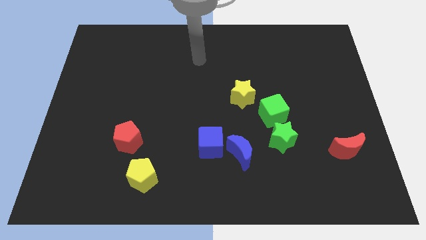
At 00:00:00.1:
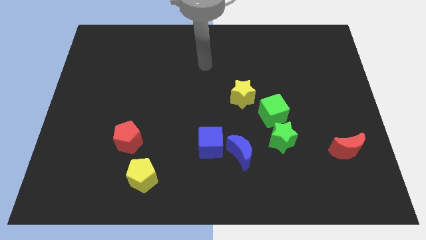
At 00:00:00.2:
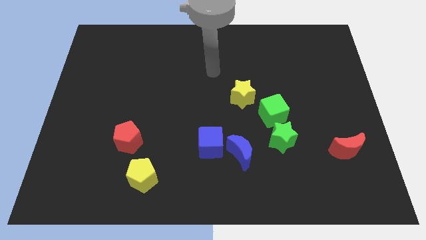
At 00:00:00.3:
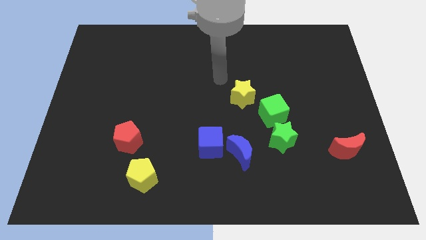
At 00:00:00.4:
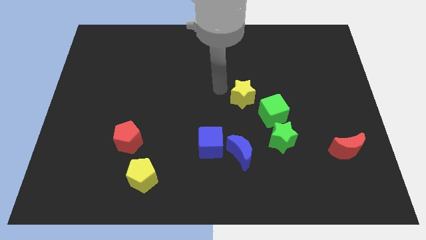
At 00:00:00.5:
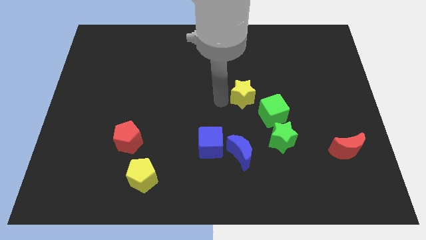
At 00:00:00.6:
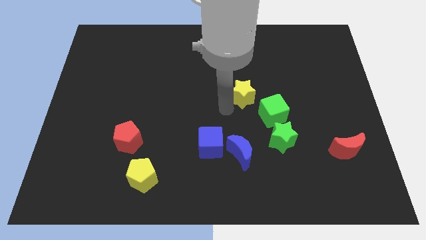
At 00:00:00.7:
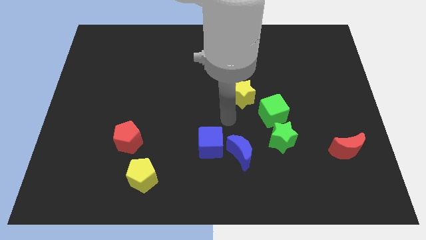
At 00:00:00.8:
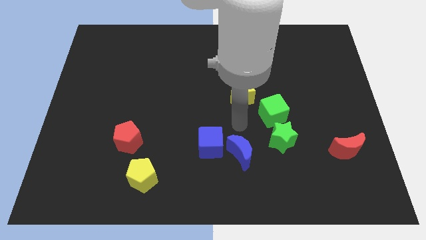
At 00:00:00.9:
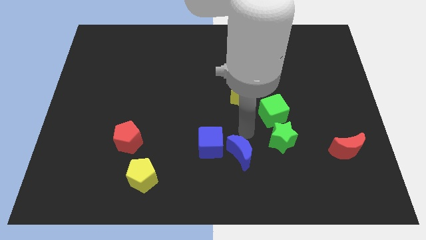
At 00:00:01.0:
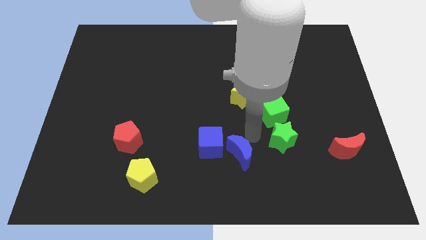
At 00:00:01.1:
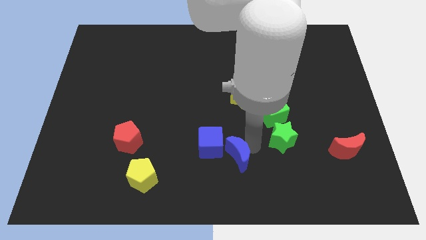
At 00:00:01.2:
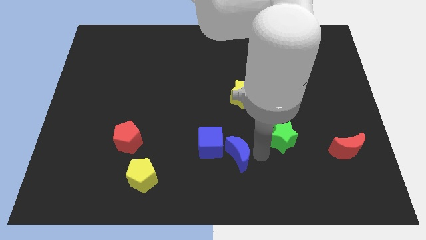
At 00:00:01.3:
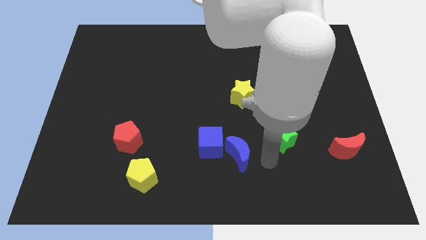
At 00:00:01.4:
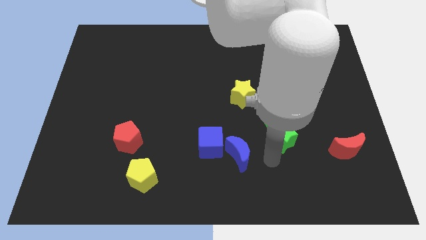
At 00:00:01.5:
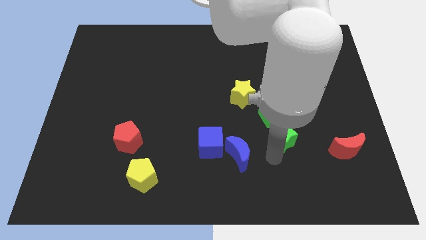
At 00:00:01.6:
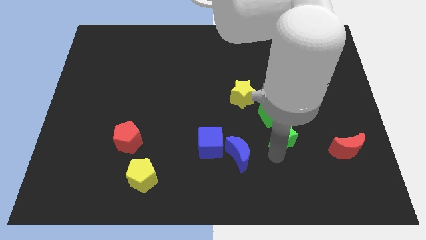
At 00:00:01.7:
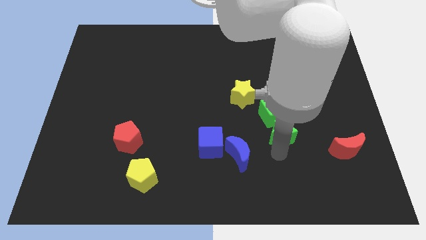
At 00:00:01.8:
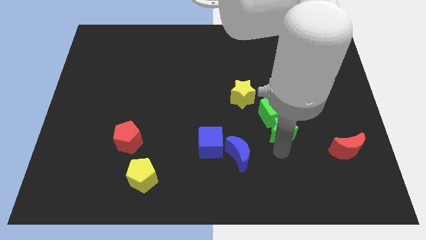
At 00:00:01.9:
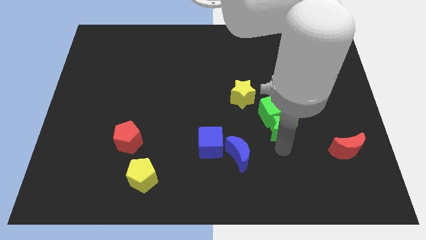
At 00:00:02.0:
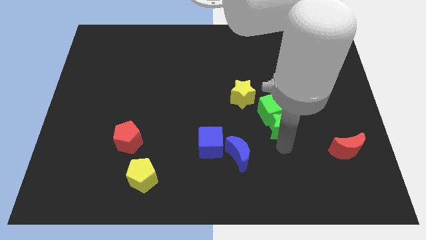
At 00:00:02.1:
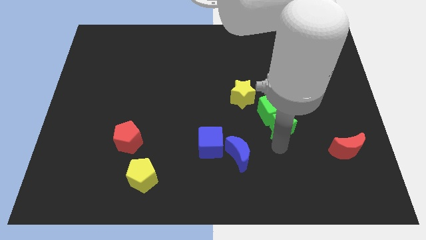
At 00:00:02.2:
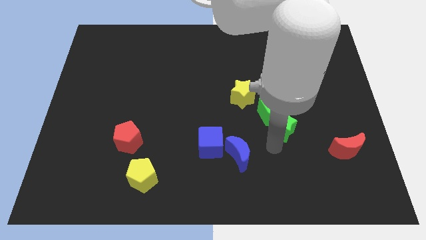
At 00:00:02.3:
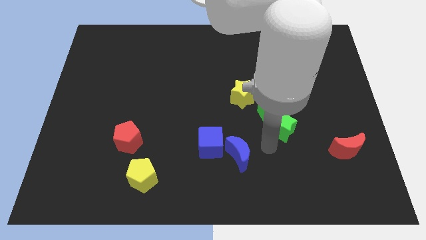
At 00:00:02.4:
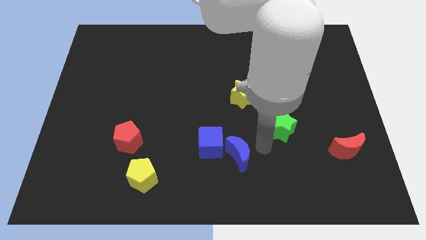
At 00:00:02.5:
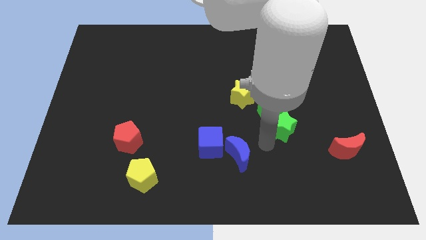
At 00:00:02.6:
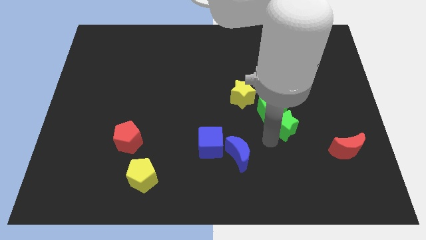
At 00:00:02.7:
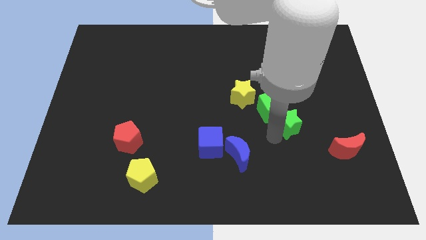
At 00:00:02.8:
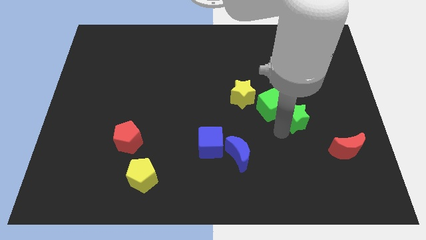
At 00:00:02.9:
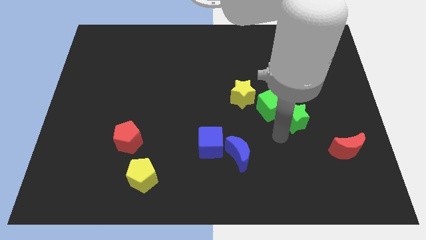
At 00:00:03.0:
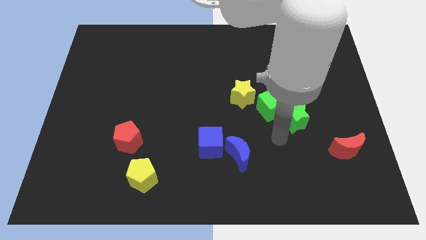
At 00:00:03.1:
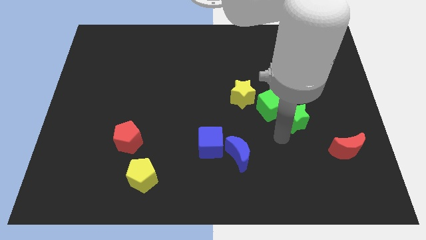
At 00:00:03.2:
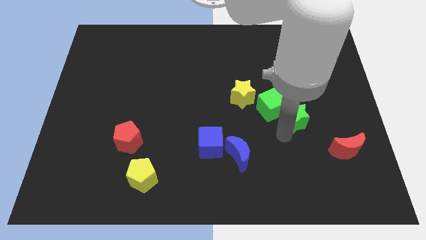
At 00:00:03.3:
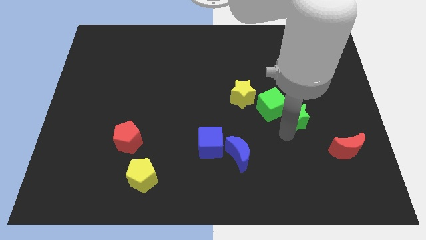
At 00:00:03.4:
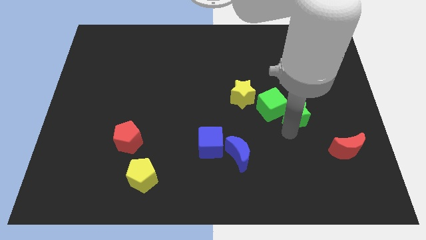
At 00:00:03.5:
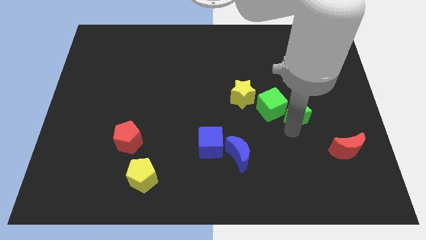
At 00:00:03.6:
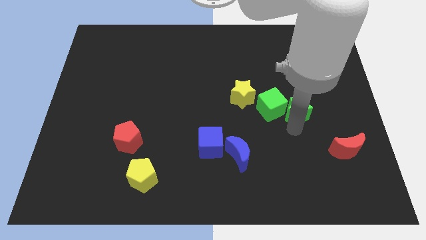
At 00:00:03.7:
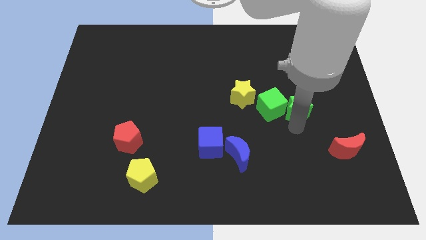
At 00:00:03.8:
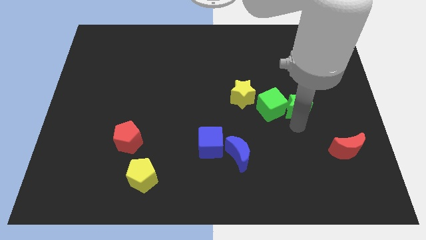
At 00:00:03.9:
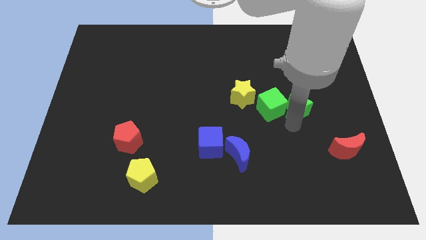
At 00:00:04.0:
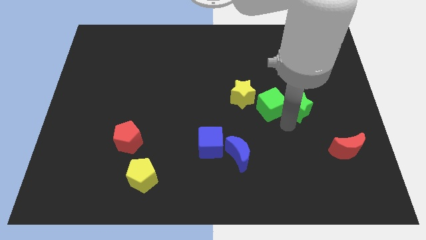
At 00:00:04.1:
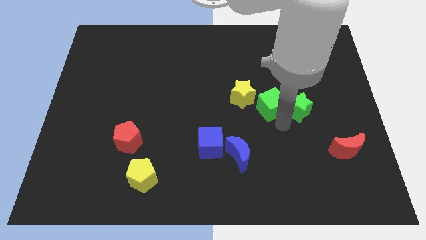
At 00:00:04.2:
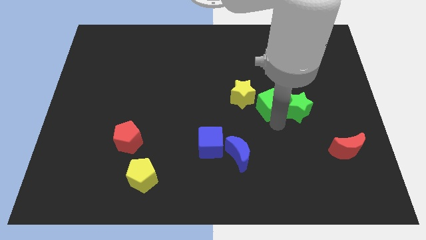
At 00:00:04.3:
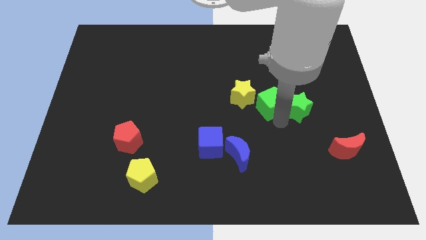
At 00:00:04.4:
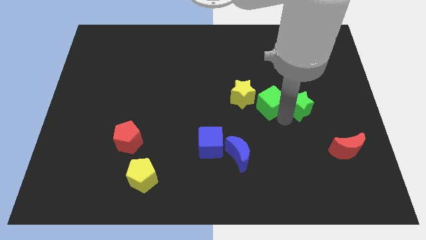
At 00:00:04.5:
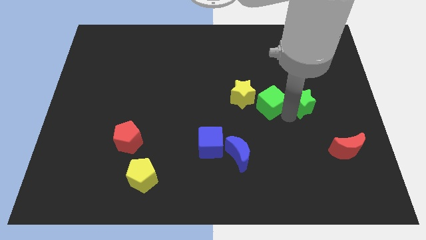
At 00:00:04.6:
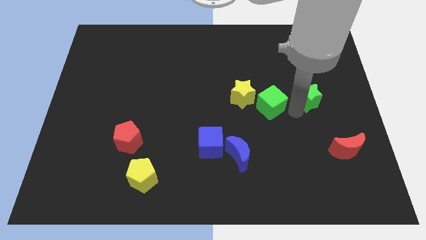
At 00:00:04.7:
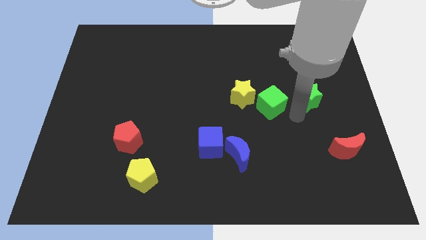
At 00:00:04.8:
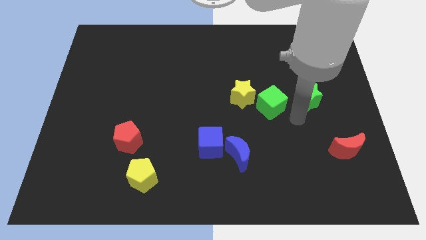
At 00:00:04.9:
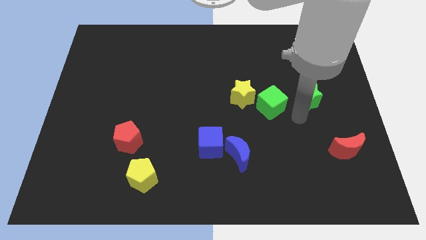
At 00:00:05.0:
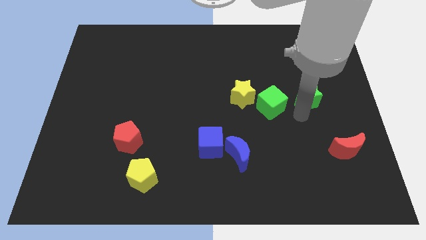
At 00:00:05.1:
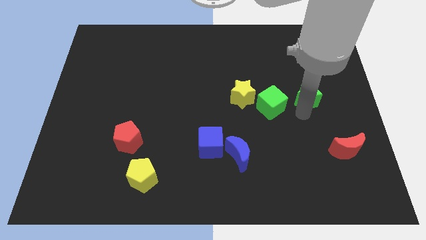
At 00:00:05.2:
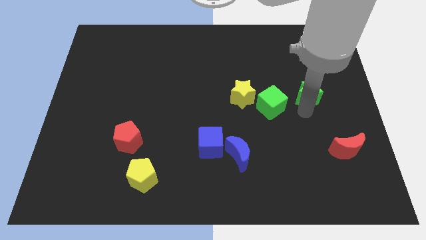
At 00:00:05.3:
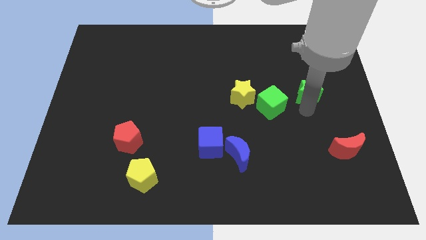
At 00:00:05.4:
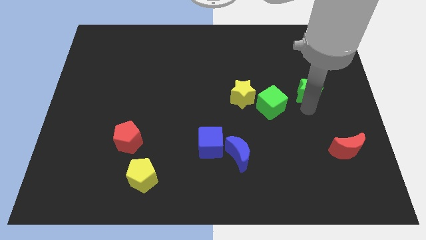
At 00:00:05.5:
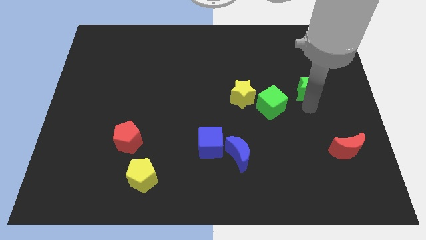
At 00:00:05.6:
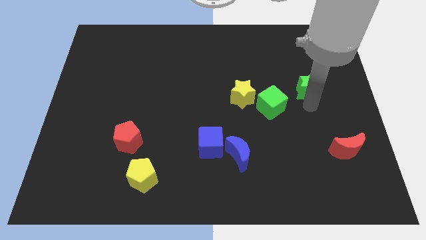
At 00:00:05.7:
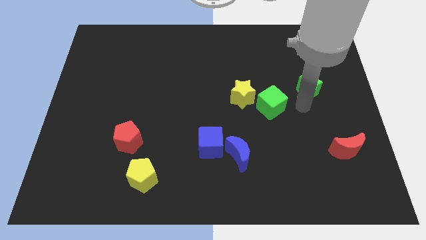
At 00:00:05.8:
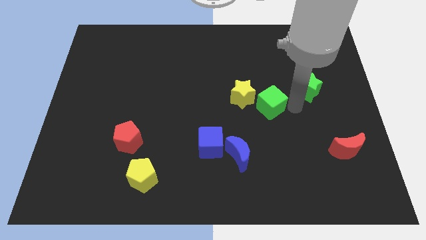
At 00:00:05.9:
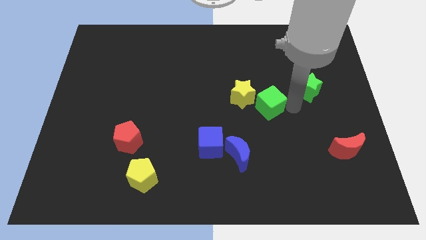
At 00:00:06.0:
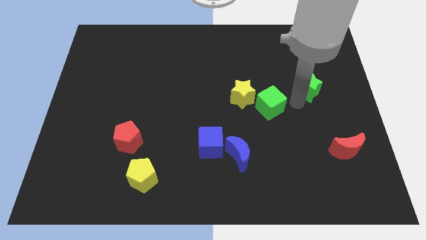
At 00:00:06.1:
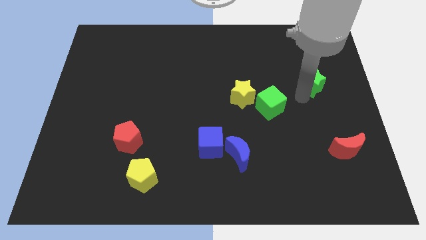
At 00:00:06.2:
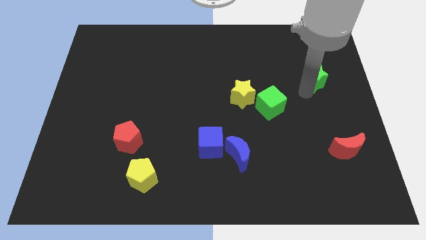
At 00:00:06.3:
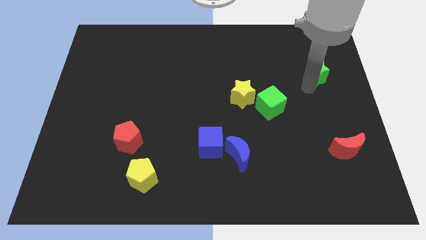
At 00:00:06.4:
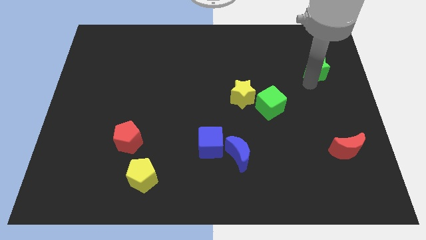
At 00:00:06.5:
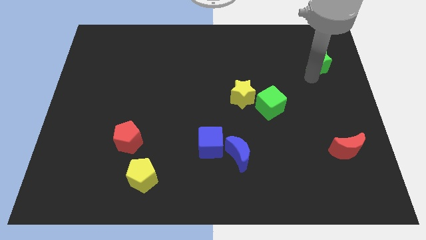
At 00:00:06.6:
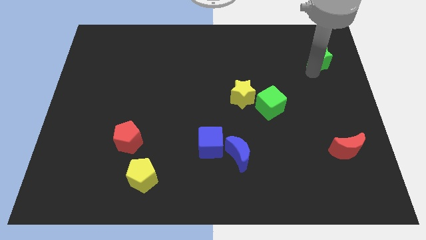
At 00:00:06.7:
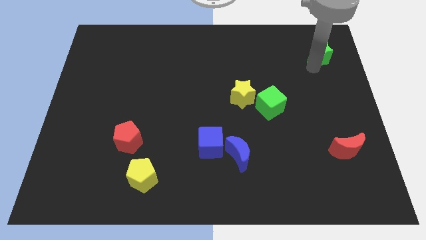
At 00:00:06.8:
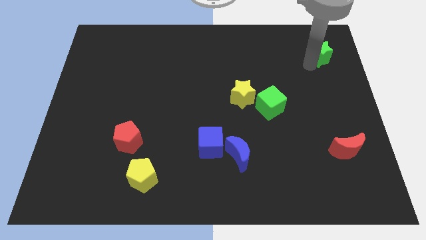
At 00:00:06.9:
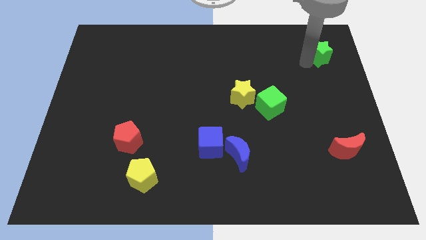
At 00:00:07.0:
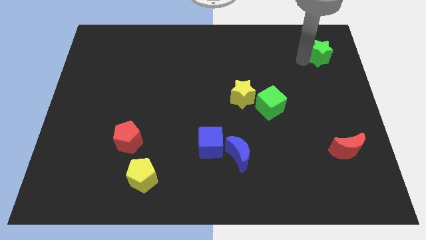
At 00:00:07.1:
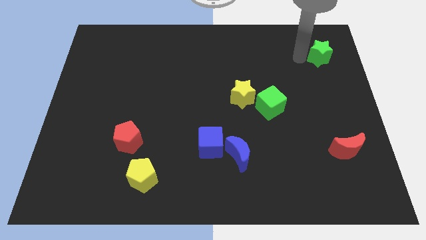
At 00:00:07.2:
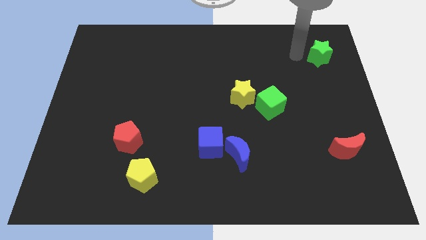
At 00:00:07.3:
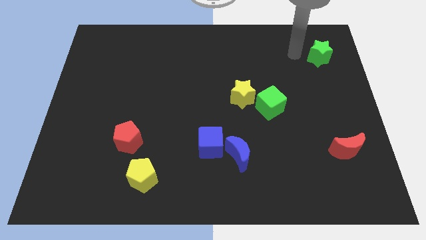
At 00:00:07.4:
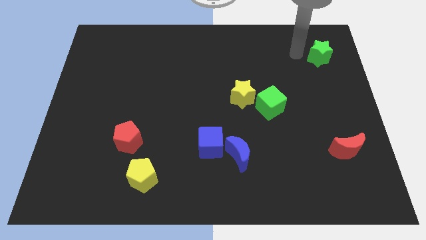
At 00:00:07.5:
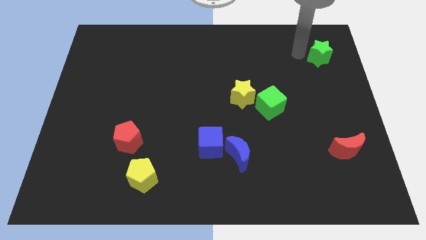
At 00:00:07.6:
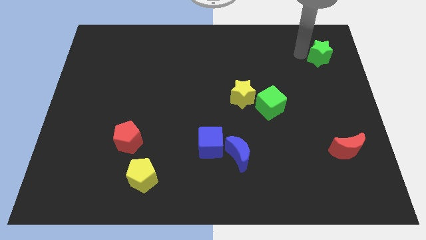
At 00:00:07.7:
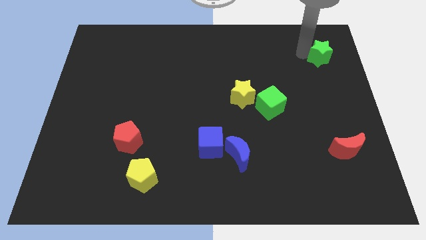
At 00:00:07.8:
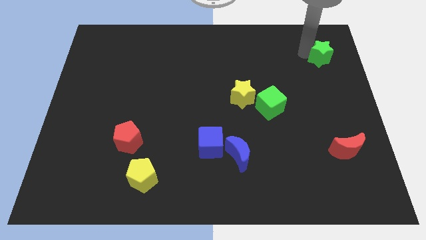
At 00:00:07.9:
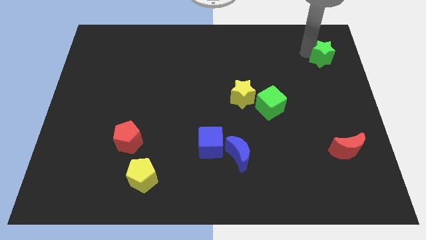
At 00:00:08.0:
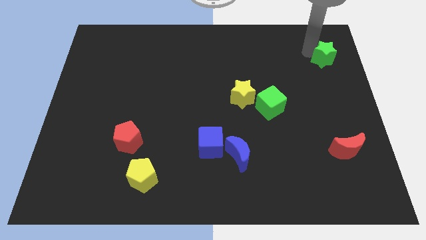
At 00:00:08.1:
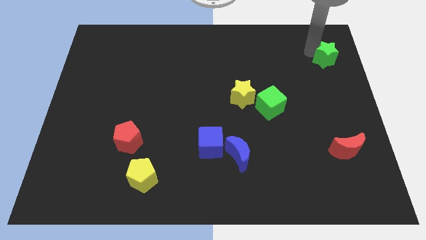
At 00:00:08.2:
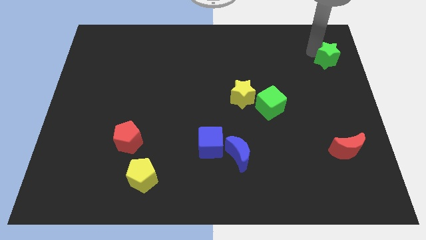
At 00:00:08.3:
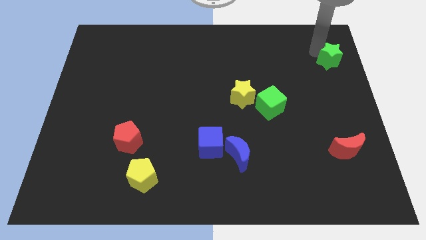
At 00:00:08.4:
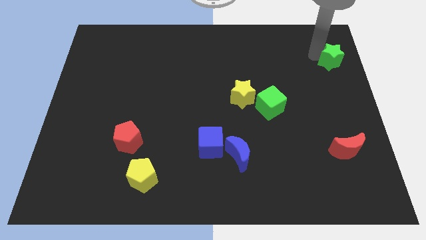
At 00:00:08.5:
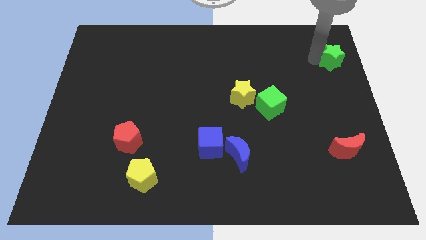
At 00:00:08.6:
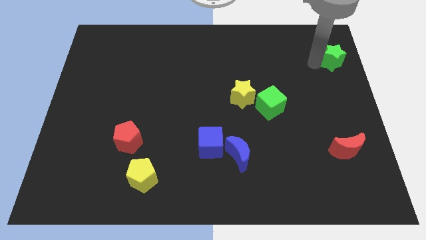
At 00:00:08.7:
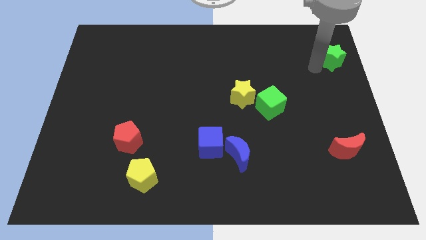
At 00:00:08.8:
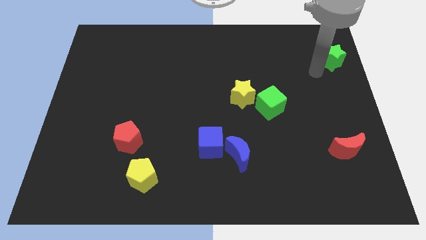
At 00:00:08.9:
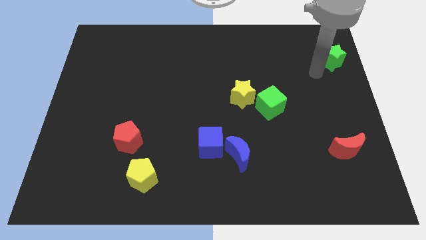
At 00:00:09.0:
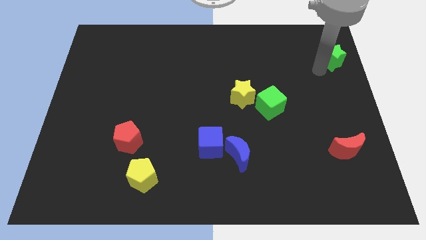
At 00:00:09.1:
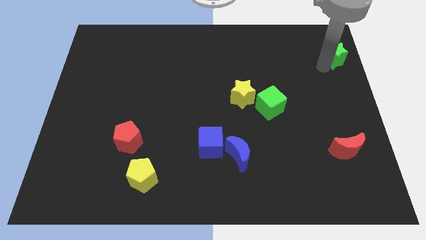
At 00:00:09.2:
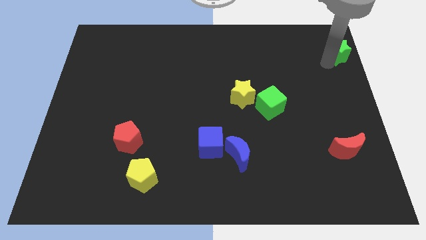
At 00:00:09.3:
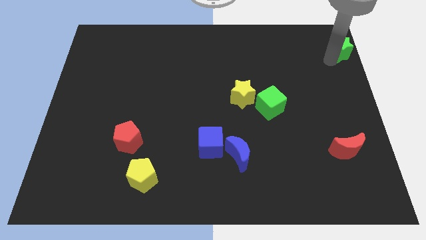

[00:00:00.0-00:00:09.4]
push the green star to the top right
